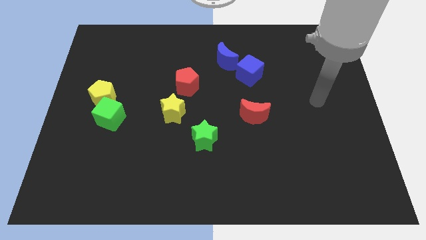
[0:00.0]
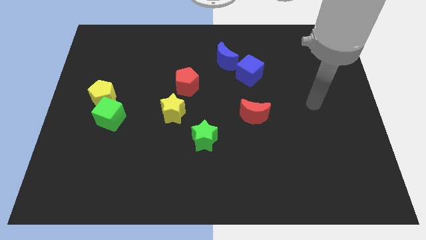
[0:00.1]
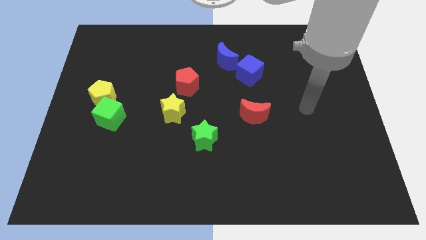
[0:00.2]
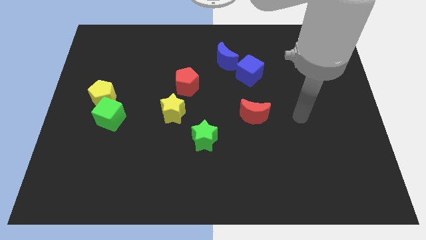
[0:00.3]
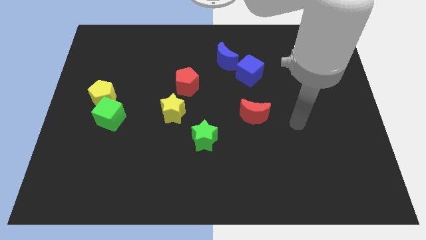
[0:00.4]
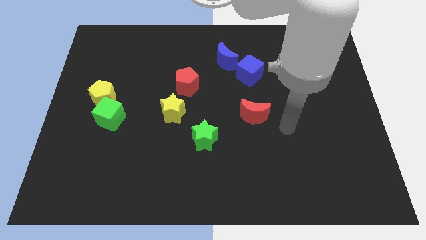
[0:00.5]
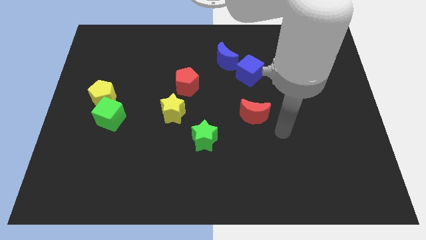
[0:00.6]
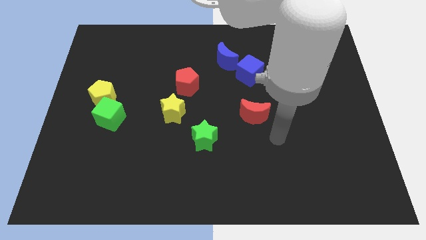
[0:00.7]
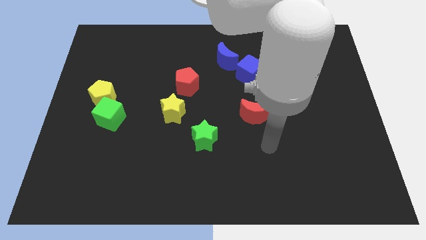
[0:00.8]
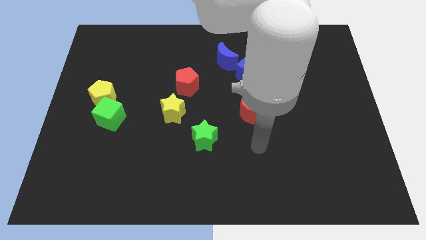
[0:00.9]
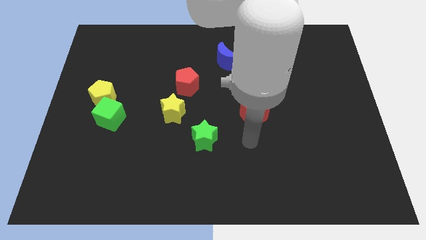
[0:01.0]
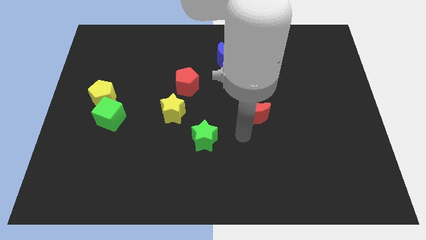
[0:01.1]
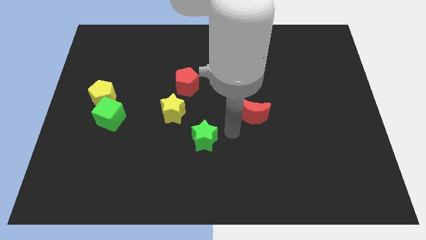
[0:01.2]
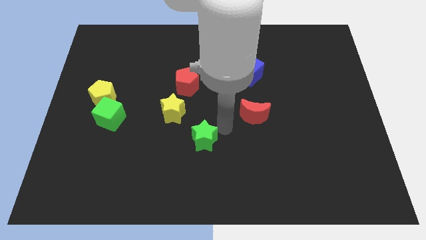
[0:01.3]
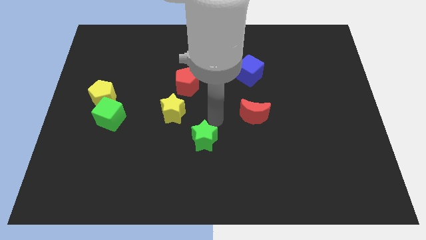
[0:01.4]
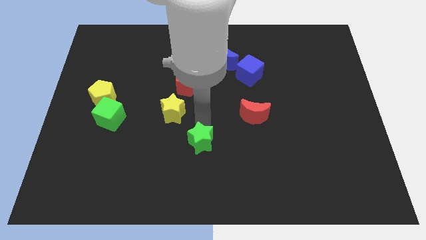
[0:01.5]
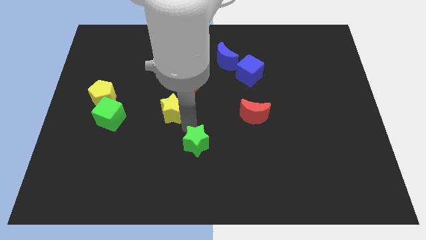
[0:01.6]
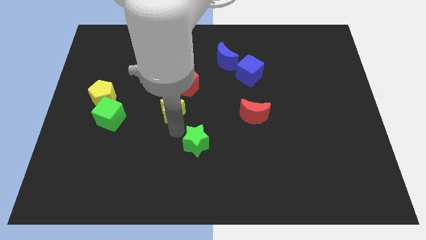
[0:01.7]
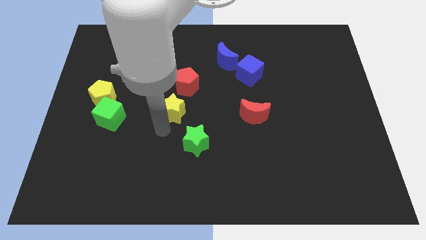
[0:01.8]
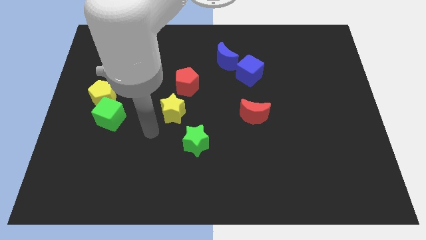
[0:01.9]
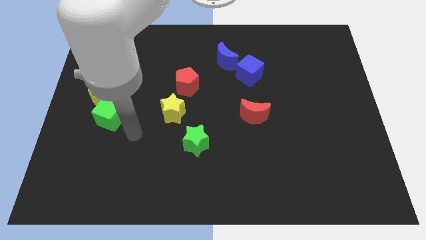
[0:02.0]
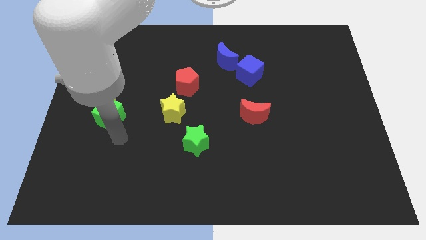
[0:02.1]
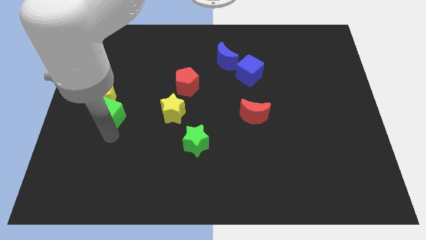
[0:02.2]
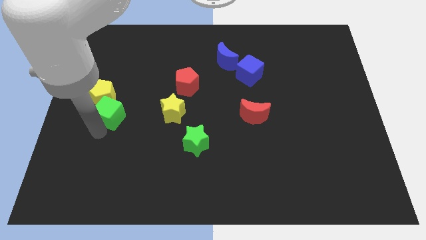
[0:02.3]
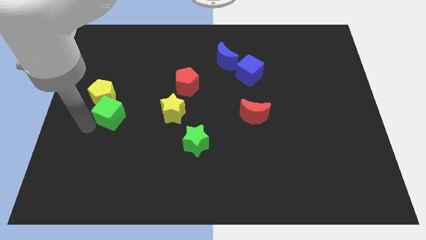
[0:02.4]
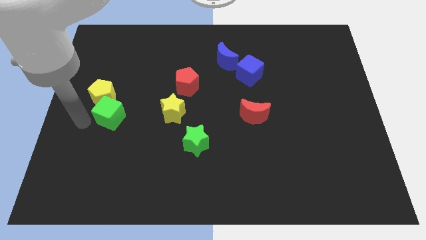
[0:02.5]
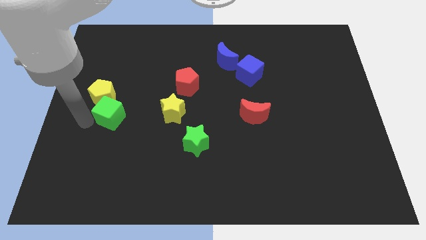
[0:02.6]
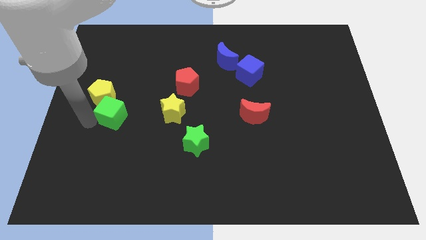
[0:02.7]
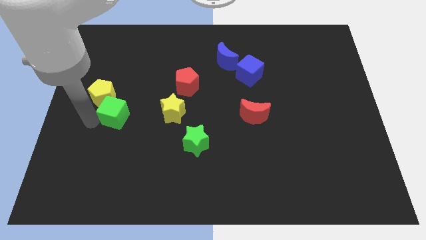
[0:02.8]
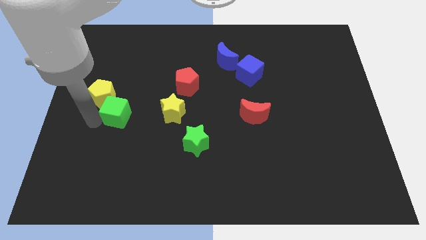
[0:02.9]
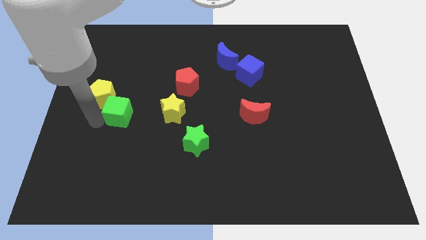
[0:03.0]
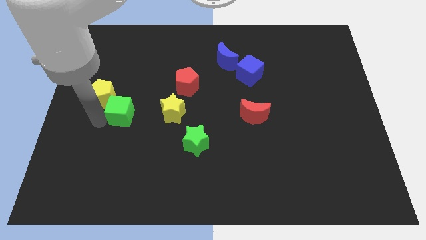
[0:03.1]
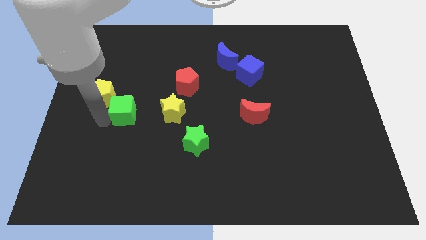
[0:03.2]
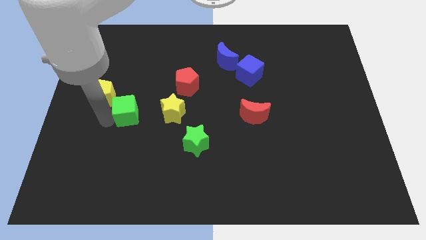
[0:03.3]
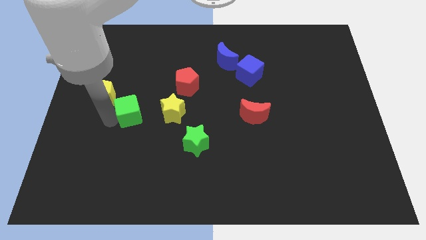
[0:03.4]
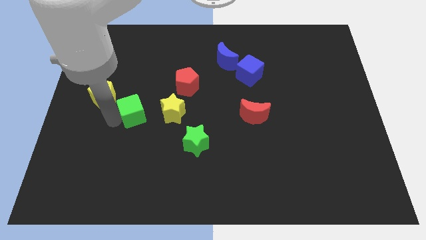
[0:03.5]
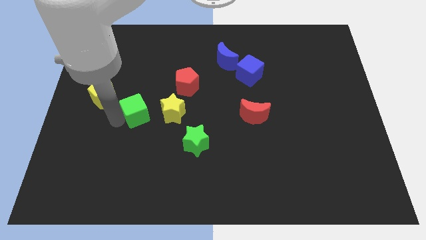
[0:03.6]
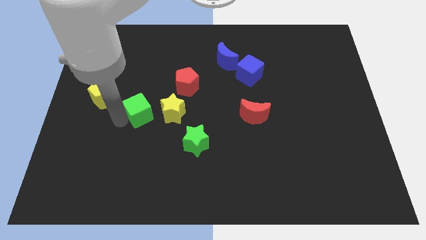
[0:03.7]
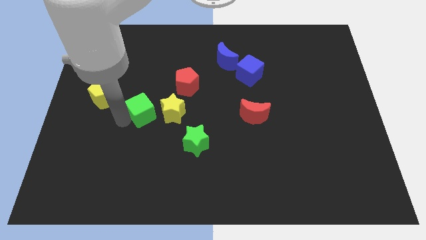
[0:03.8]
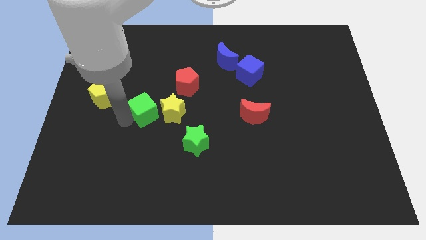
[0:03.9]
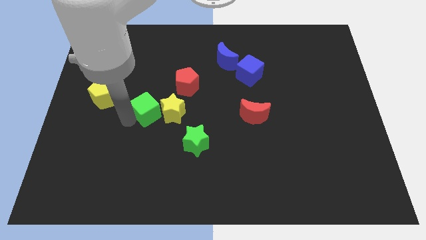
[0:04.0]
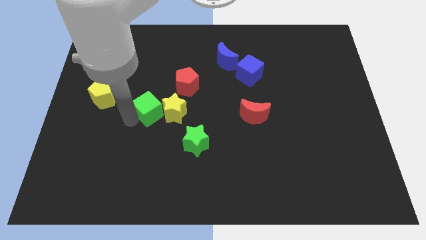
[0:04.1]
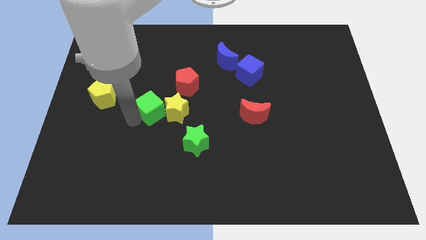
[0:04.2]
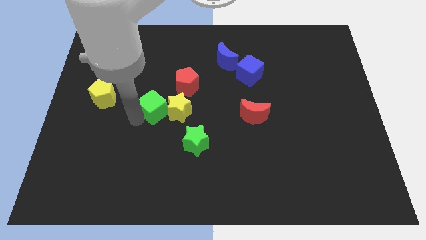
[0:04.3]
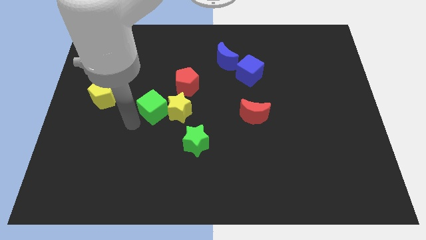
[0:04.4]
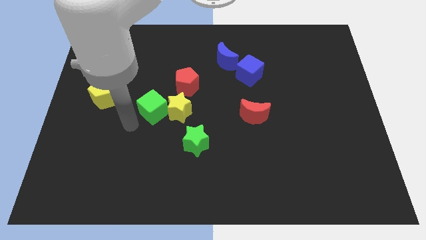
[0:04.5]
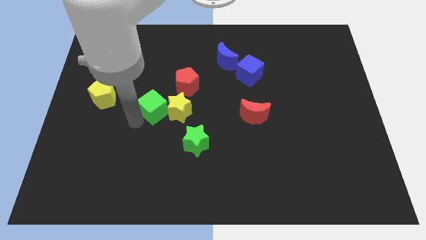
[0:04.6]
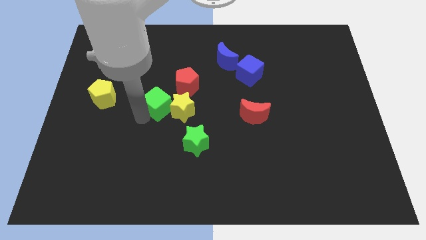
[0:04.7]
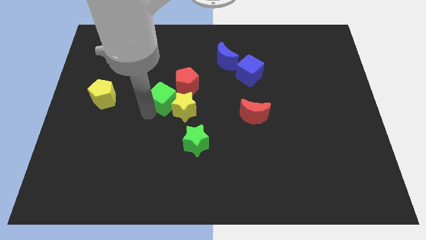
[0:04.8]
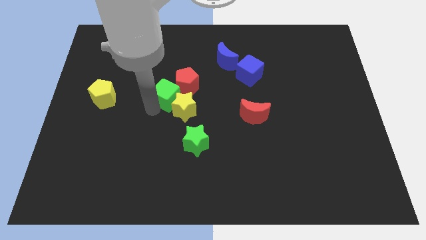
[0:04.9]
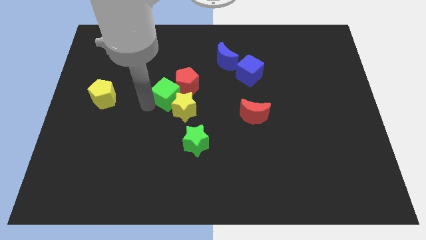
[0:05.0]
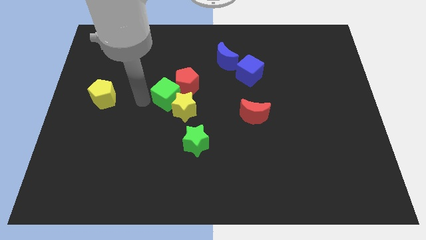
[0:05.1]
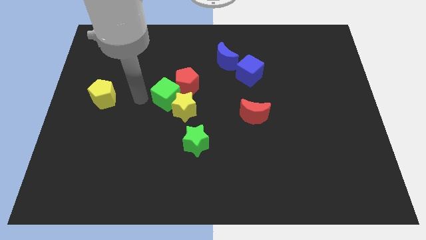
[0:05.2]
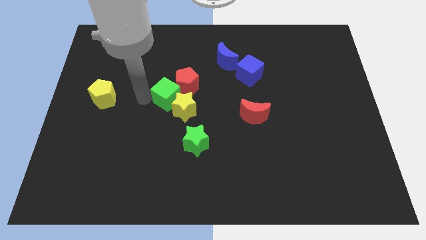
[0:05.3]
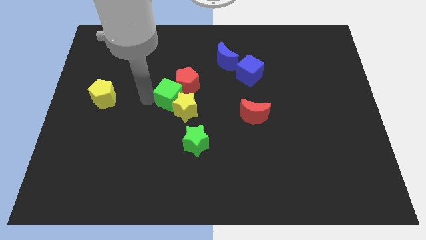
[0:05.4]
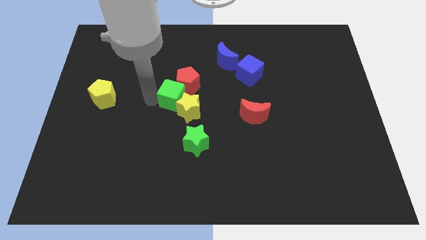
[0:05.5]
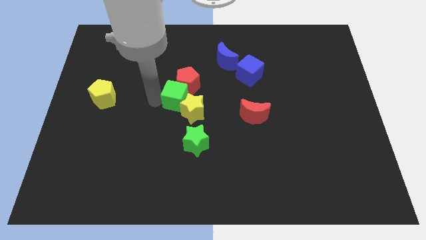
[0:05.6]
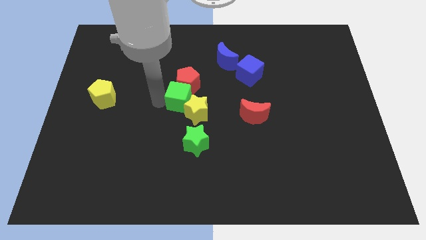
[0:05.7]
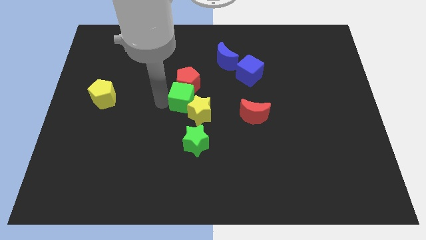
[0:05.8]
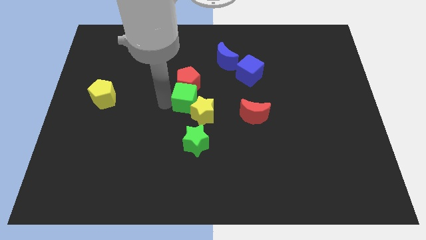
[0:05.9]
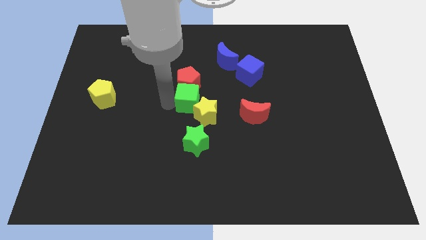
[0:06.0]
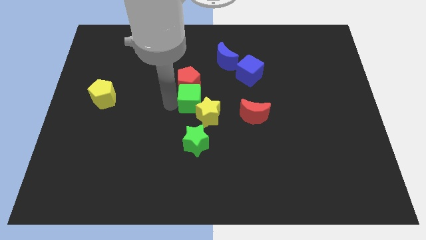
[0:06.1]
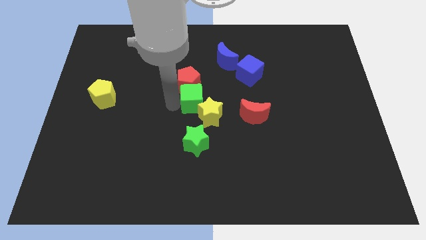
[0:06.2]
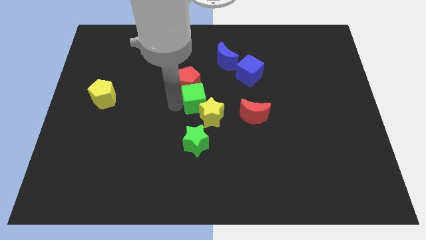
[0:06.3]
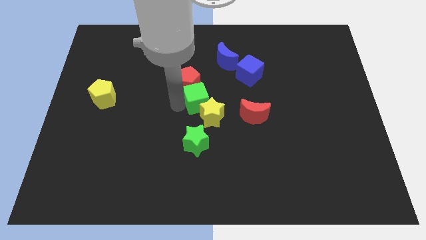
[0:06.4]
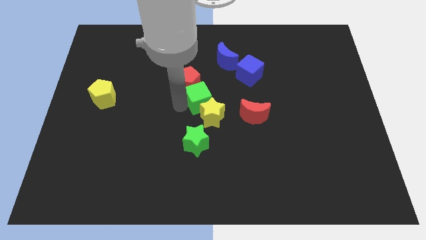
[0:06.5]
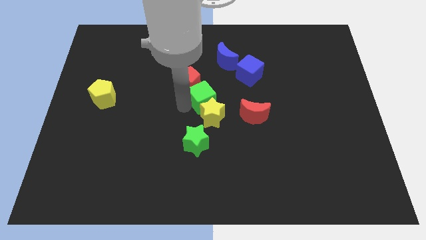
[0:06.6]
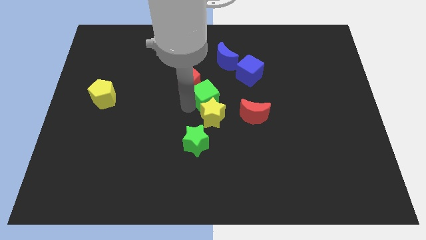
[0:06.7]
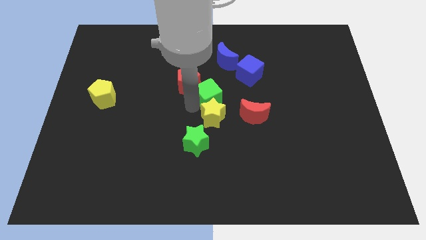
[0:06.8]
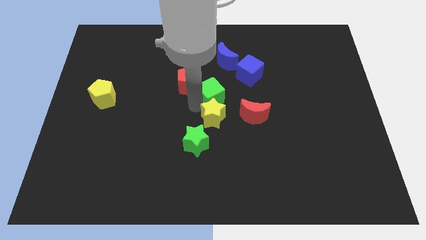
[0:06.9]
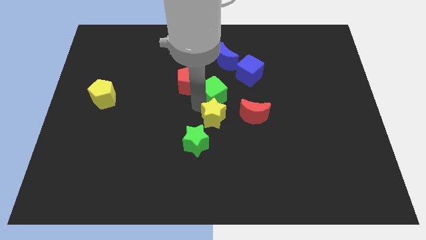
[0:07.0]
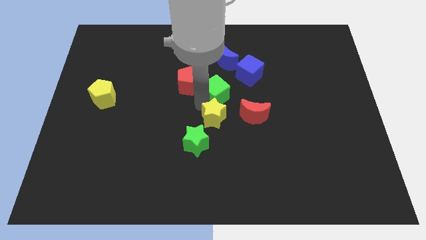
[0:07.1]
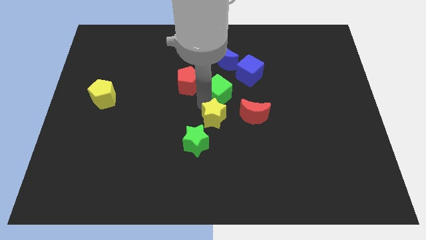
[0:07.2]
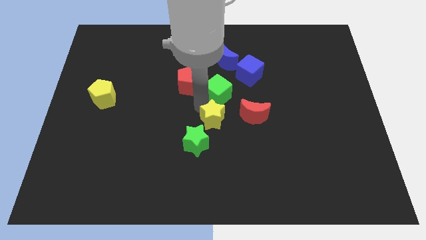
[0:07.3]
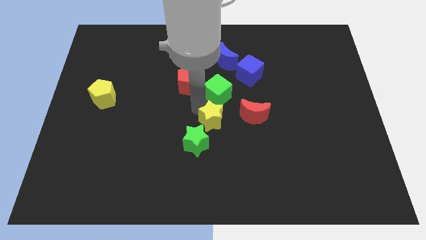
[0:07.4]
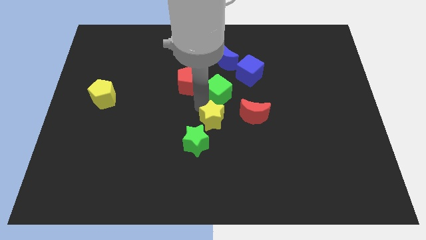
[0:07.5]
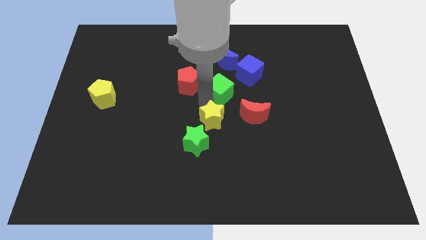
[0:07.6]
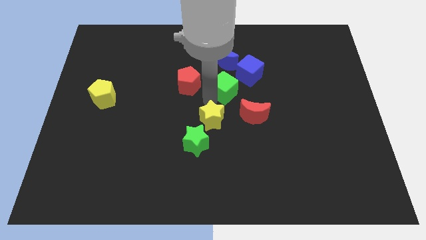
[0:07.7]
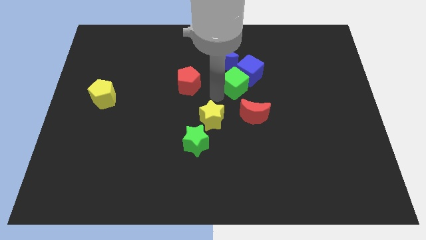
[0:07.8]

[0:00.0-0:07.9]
slide the green cube towards the blue cube
